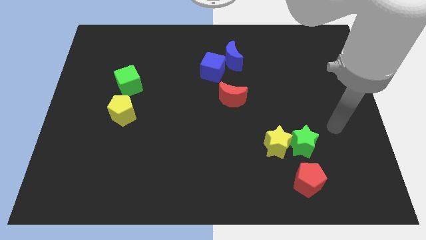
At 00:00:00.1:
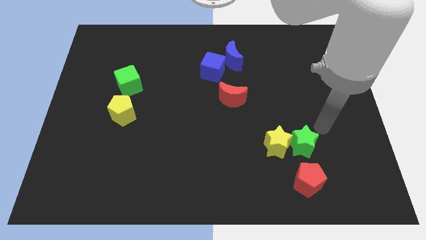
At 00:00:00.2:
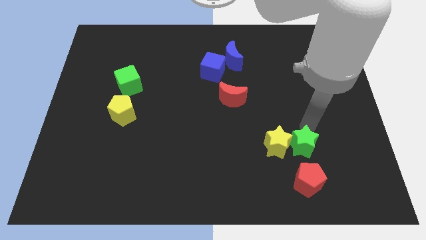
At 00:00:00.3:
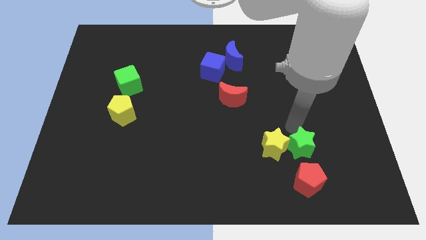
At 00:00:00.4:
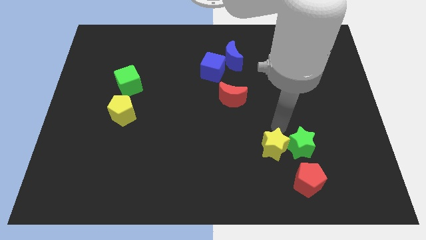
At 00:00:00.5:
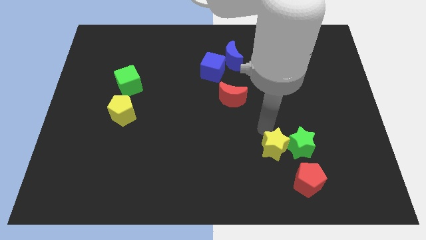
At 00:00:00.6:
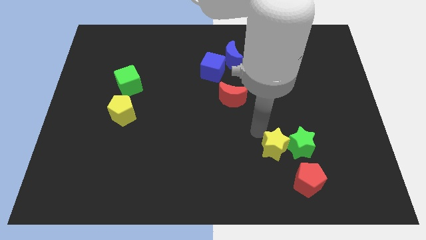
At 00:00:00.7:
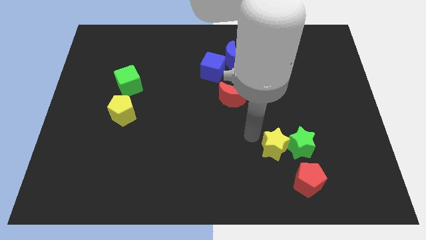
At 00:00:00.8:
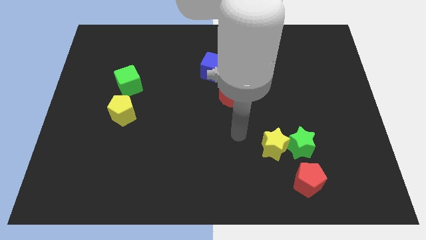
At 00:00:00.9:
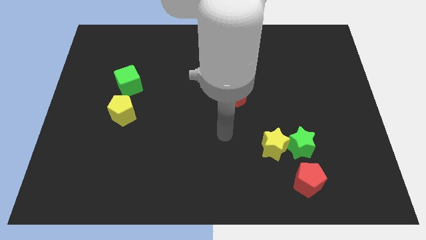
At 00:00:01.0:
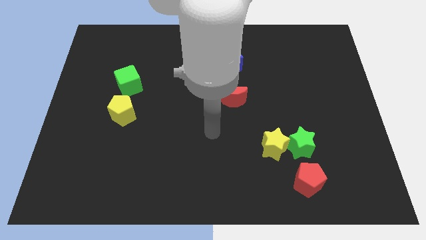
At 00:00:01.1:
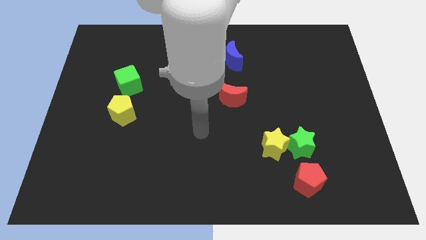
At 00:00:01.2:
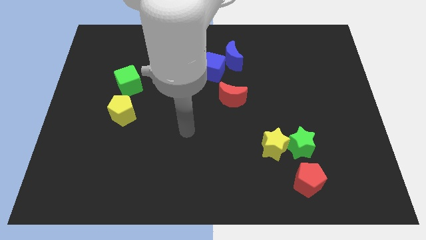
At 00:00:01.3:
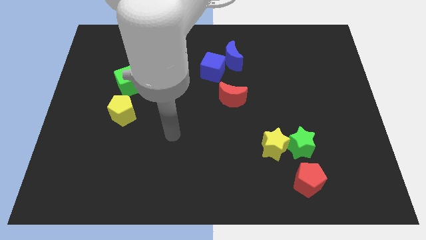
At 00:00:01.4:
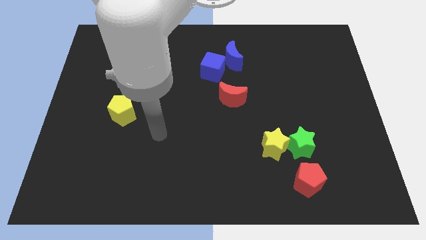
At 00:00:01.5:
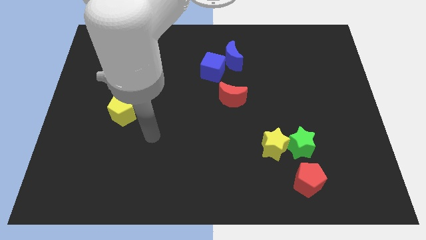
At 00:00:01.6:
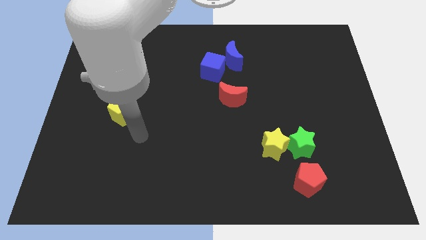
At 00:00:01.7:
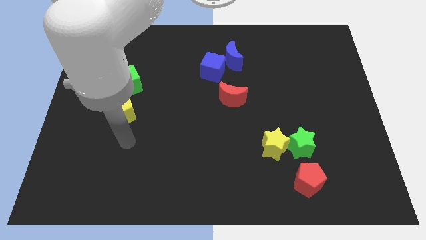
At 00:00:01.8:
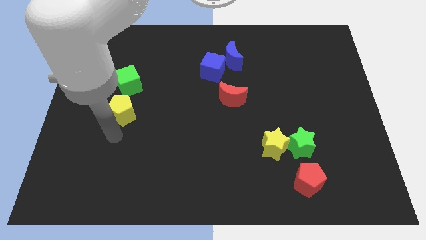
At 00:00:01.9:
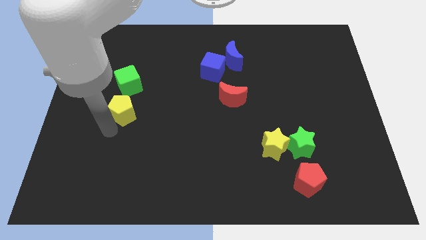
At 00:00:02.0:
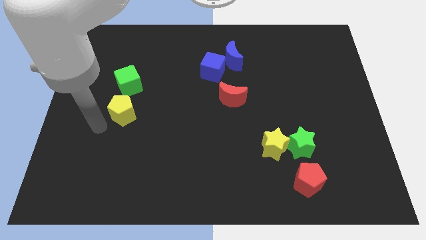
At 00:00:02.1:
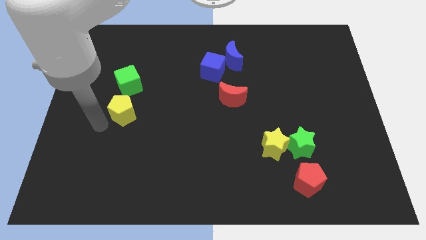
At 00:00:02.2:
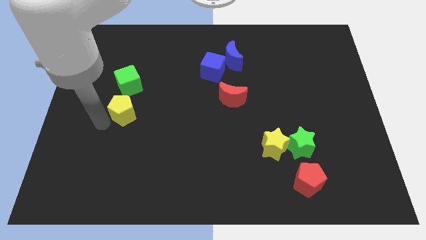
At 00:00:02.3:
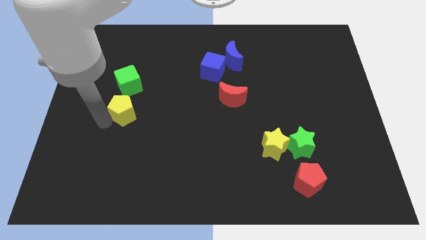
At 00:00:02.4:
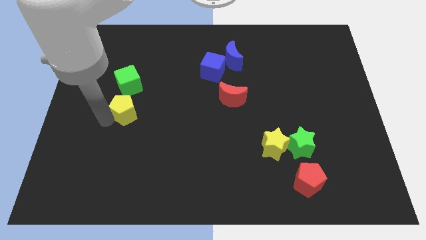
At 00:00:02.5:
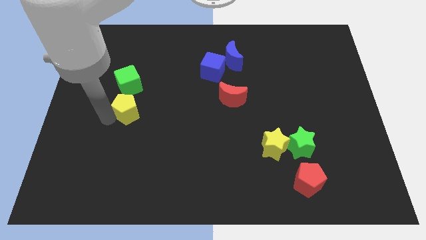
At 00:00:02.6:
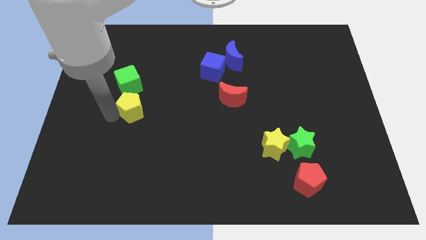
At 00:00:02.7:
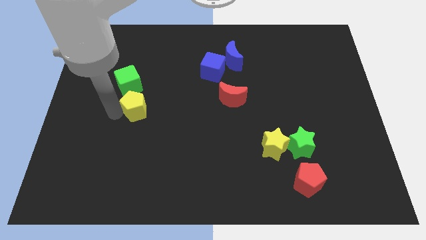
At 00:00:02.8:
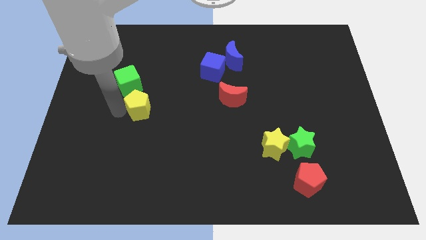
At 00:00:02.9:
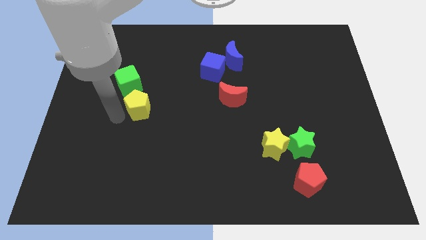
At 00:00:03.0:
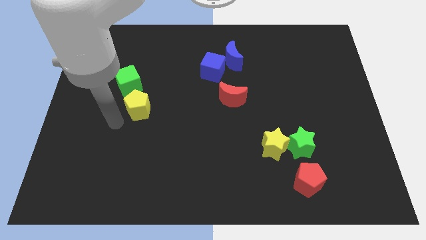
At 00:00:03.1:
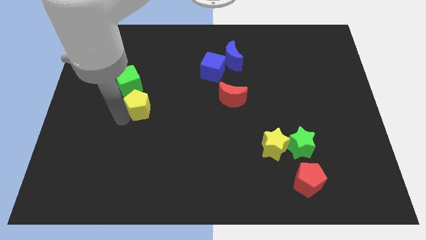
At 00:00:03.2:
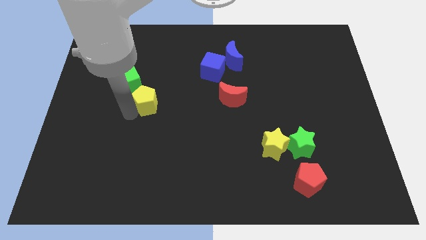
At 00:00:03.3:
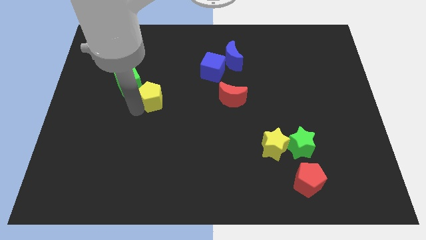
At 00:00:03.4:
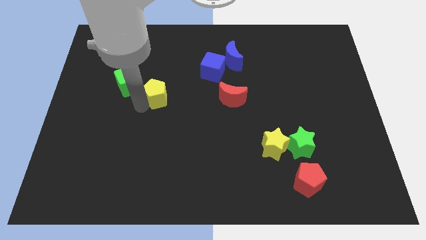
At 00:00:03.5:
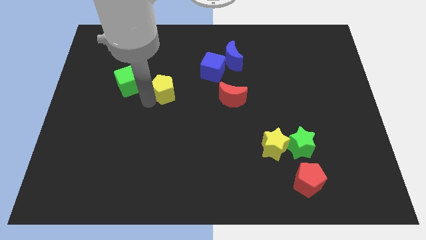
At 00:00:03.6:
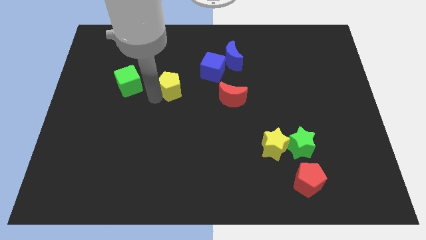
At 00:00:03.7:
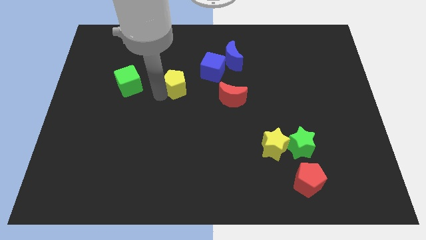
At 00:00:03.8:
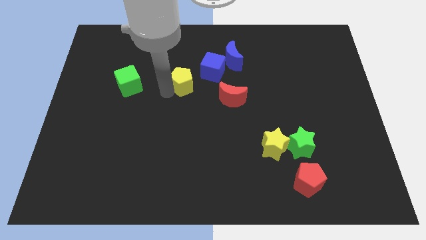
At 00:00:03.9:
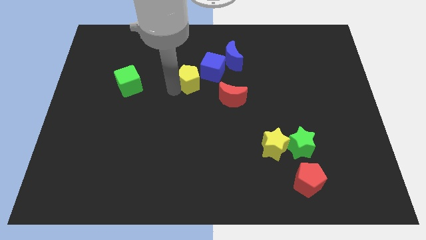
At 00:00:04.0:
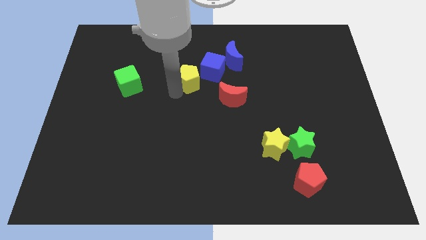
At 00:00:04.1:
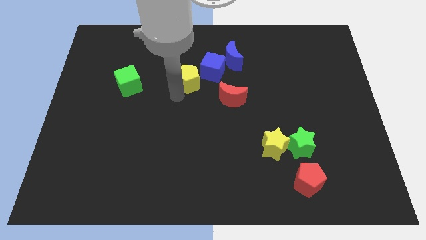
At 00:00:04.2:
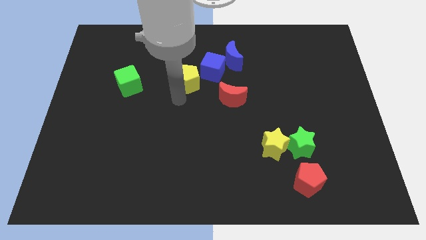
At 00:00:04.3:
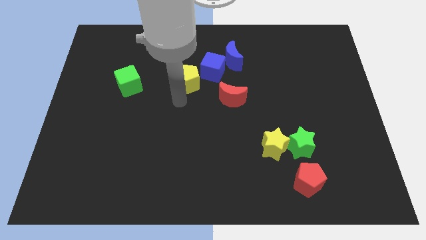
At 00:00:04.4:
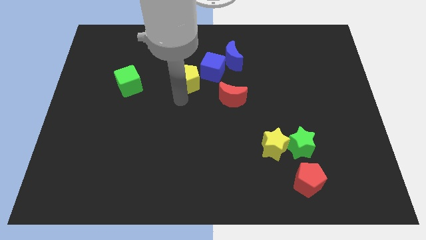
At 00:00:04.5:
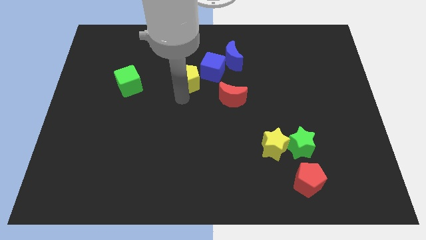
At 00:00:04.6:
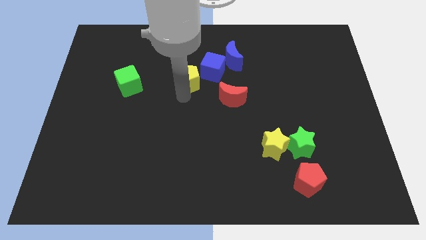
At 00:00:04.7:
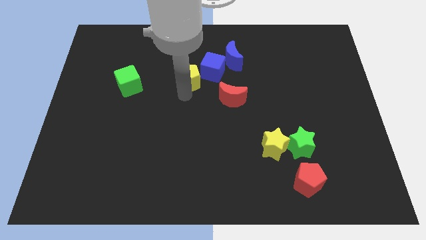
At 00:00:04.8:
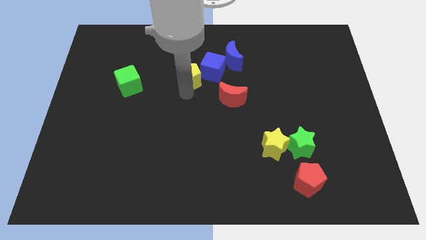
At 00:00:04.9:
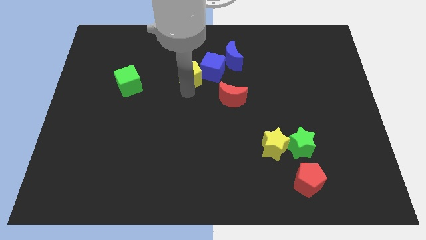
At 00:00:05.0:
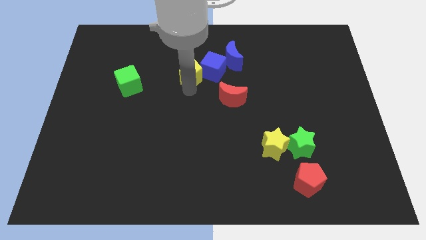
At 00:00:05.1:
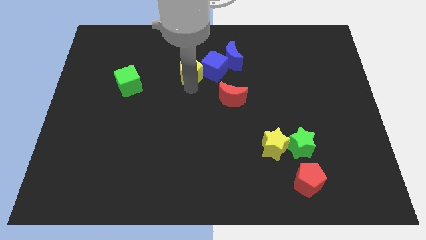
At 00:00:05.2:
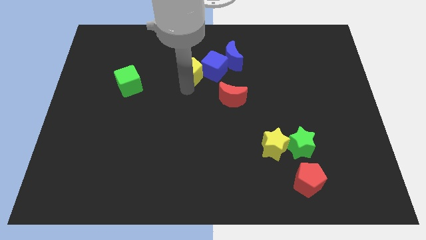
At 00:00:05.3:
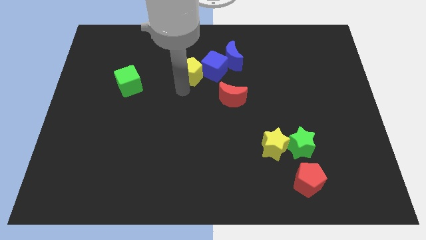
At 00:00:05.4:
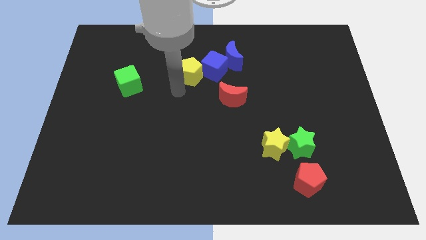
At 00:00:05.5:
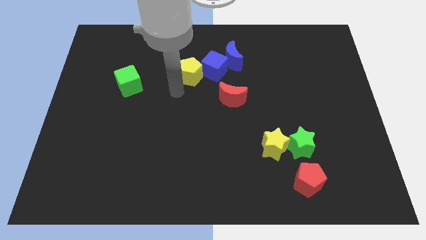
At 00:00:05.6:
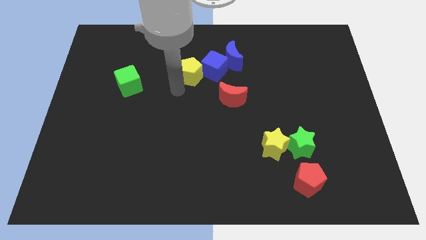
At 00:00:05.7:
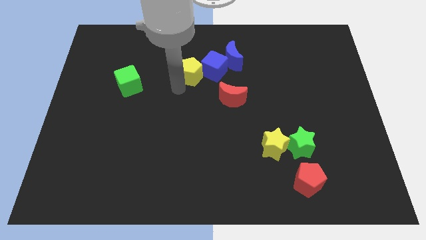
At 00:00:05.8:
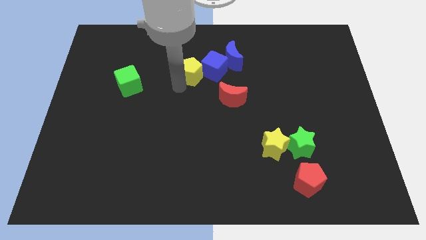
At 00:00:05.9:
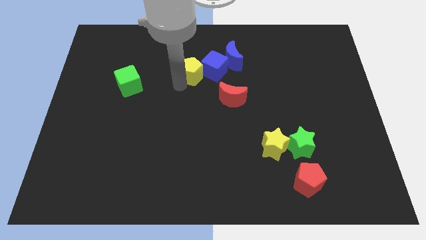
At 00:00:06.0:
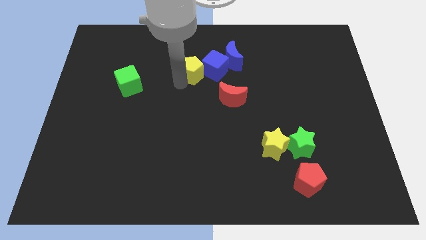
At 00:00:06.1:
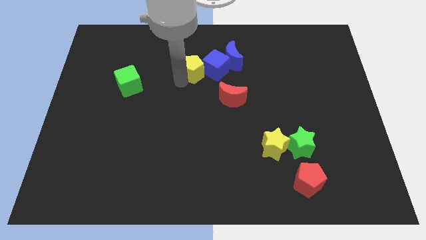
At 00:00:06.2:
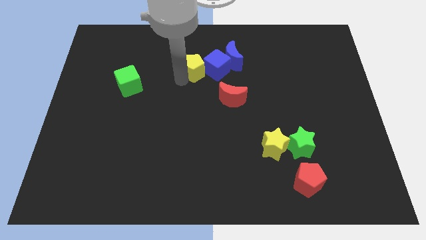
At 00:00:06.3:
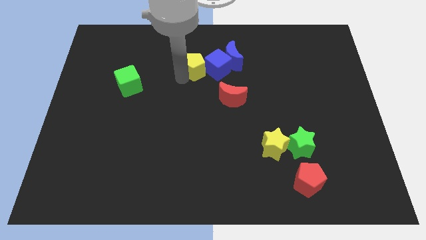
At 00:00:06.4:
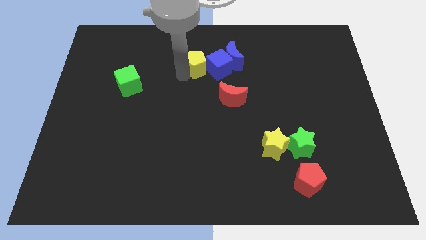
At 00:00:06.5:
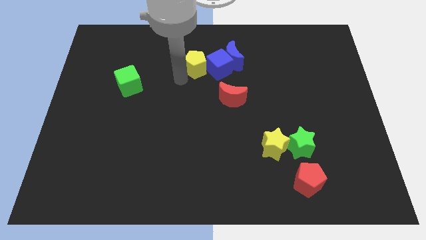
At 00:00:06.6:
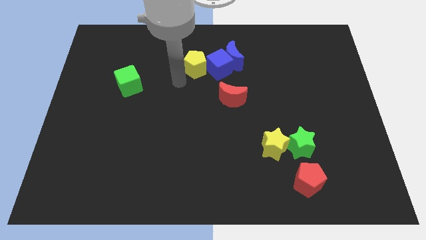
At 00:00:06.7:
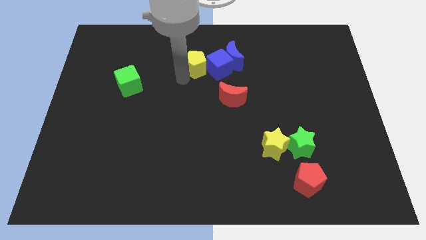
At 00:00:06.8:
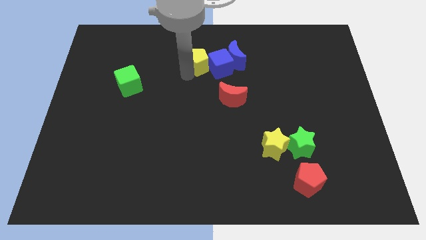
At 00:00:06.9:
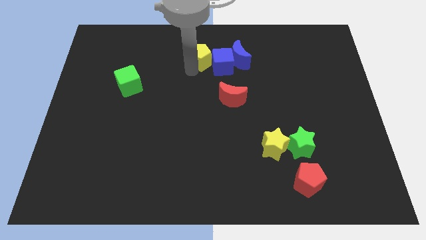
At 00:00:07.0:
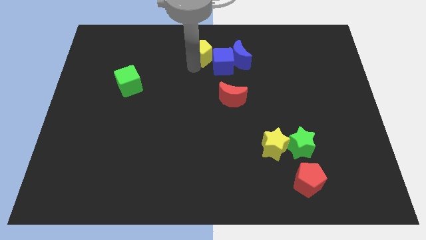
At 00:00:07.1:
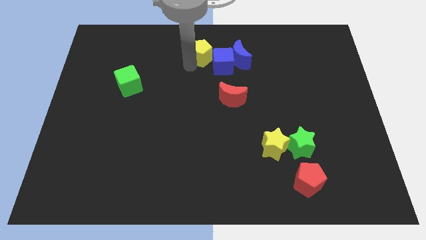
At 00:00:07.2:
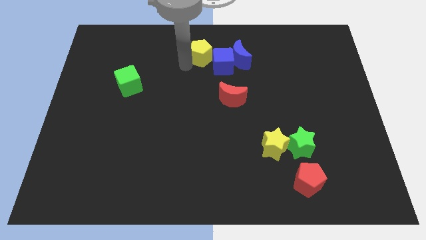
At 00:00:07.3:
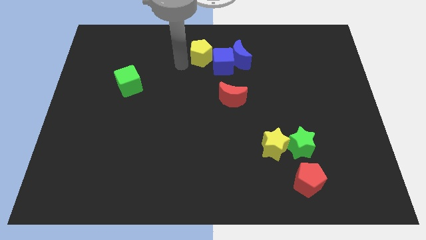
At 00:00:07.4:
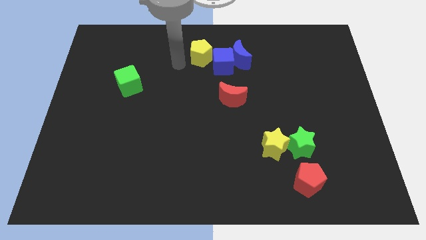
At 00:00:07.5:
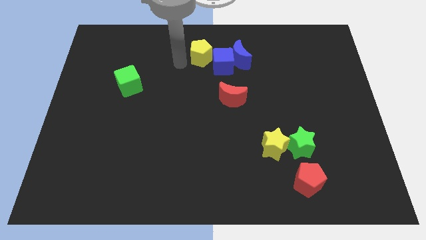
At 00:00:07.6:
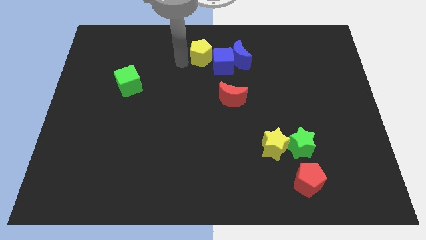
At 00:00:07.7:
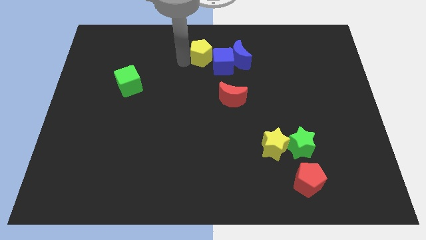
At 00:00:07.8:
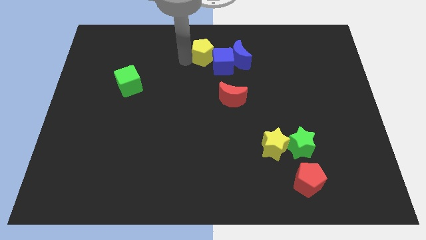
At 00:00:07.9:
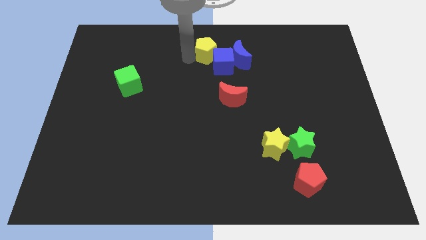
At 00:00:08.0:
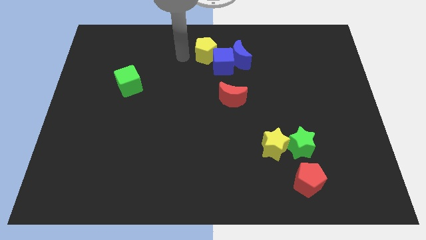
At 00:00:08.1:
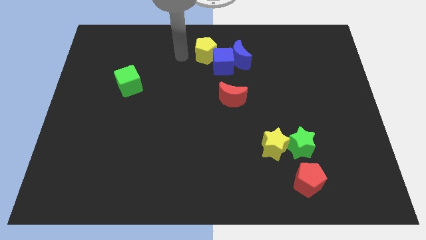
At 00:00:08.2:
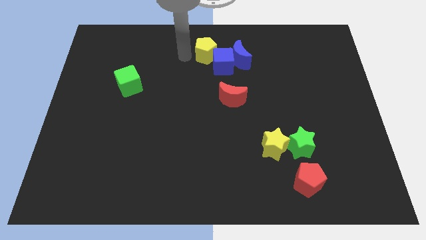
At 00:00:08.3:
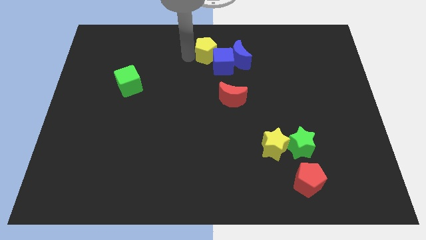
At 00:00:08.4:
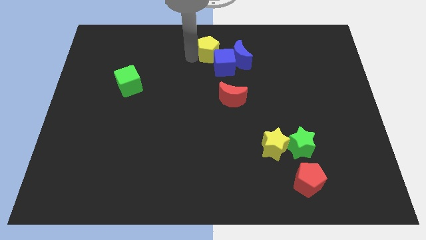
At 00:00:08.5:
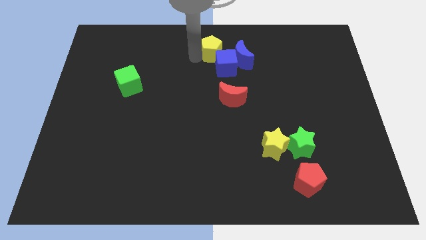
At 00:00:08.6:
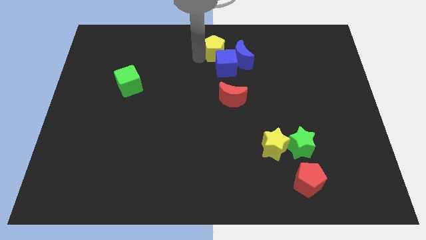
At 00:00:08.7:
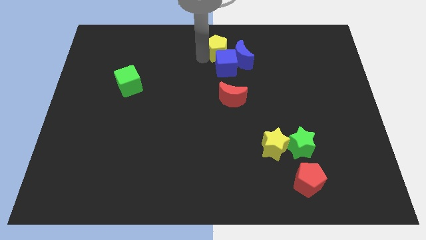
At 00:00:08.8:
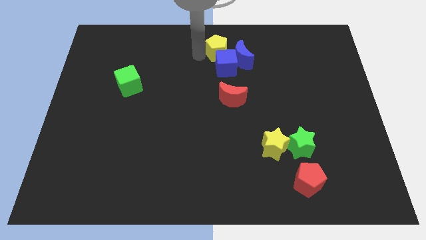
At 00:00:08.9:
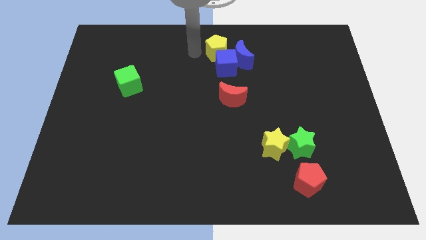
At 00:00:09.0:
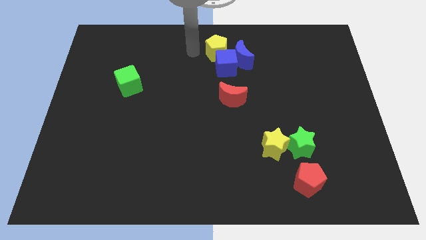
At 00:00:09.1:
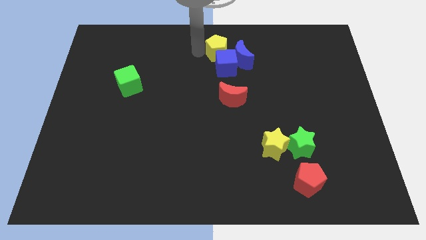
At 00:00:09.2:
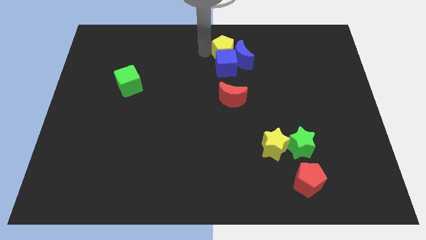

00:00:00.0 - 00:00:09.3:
slide the yellow pentagon to the top right of the blue cube
